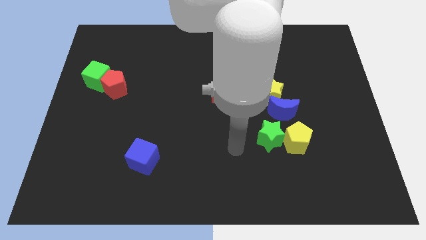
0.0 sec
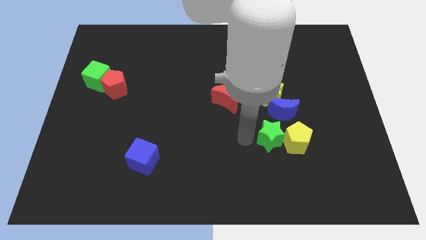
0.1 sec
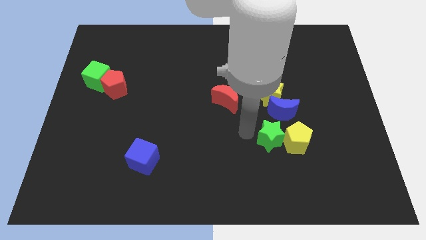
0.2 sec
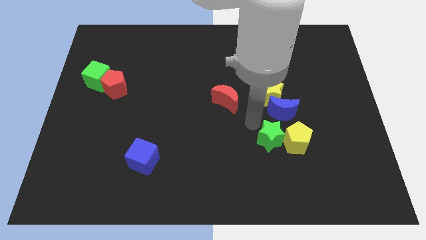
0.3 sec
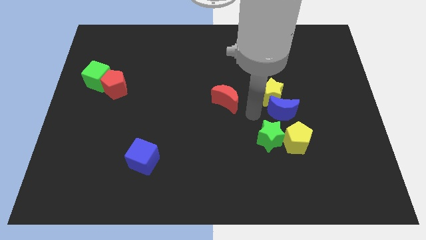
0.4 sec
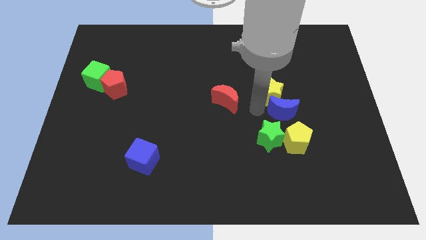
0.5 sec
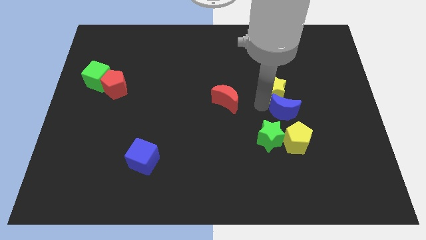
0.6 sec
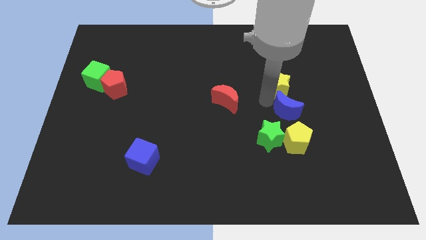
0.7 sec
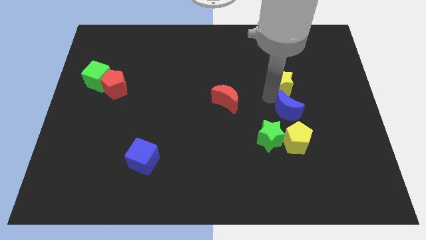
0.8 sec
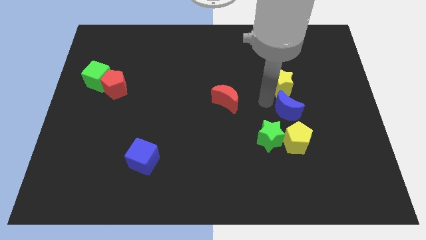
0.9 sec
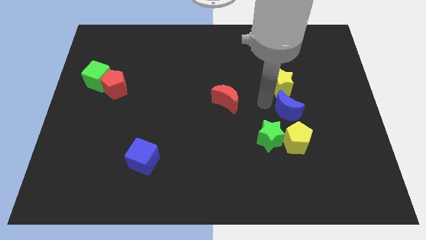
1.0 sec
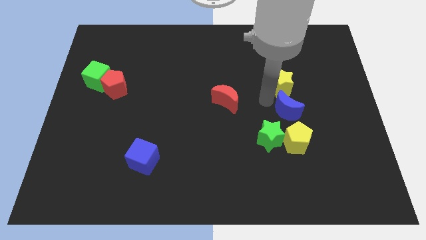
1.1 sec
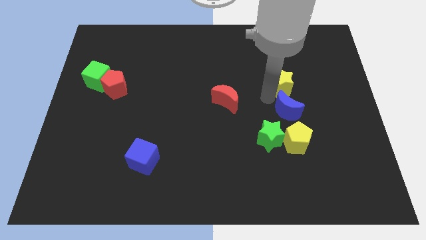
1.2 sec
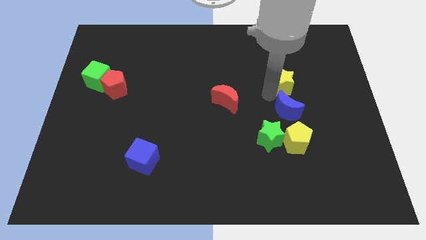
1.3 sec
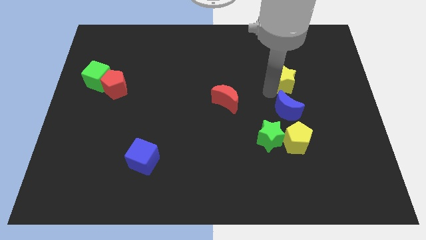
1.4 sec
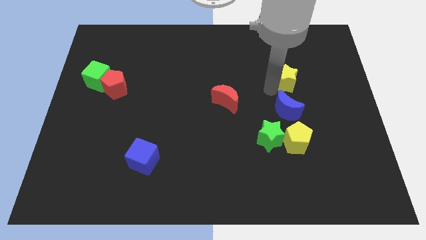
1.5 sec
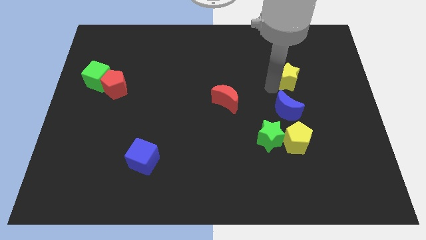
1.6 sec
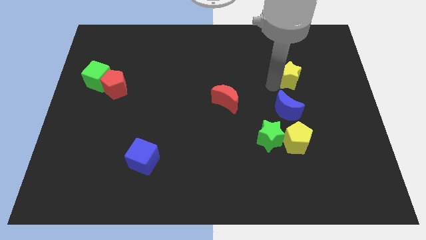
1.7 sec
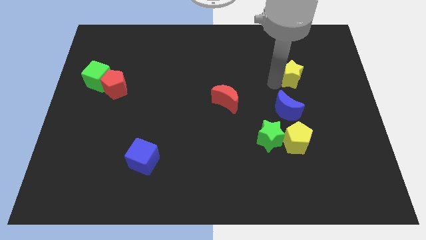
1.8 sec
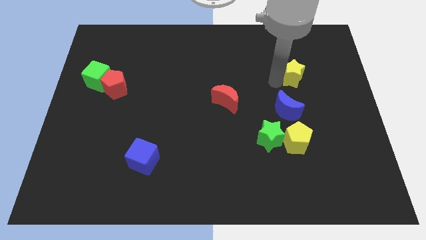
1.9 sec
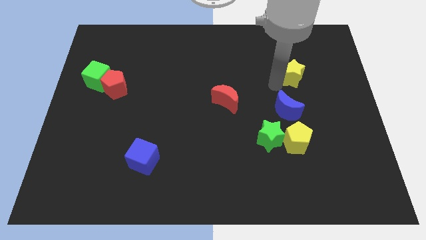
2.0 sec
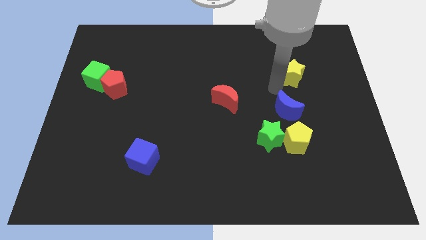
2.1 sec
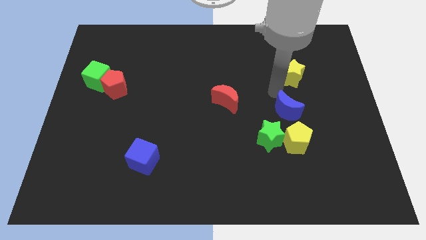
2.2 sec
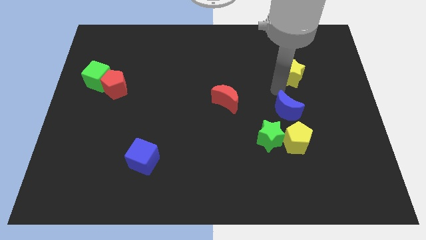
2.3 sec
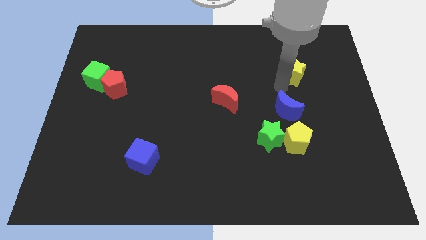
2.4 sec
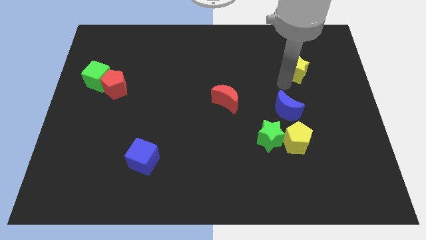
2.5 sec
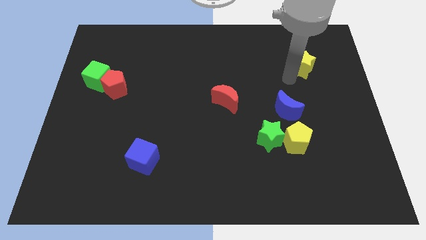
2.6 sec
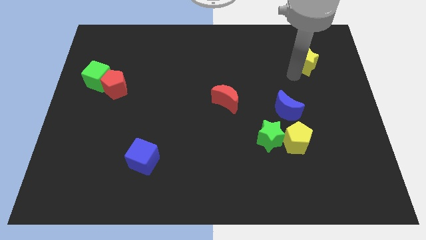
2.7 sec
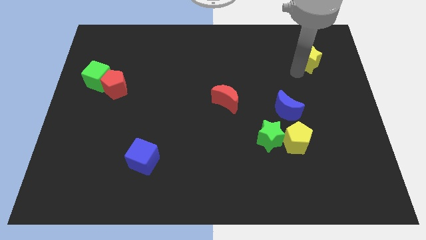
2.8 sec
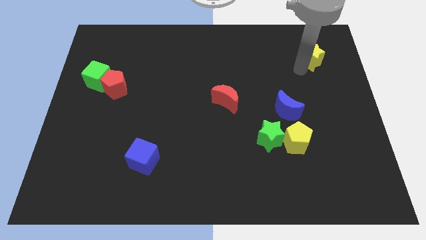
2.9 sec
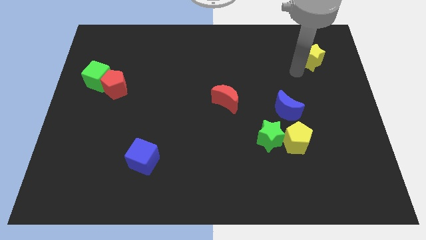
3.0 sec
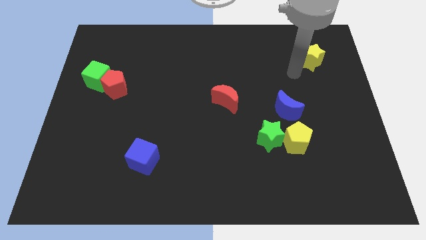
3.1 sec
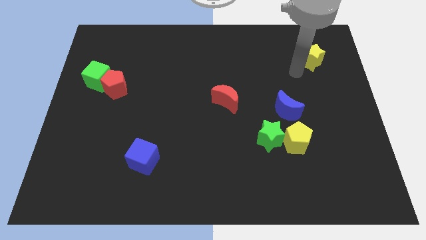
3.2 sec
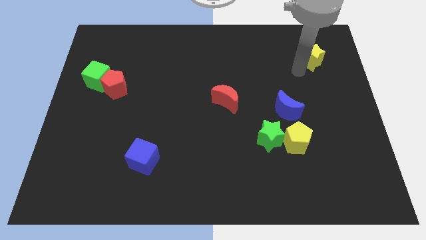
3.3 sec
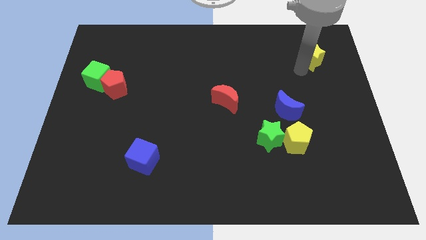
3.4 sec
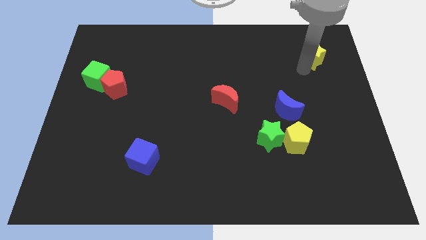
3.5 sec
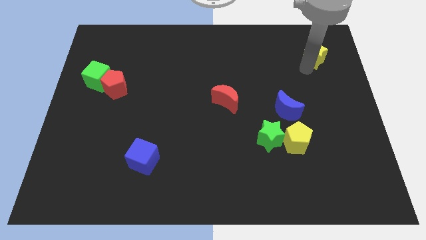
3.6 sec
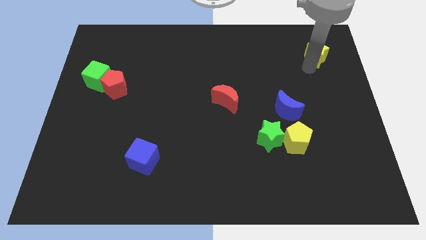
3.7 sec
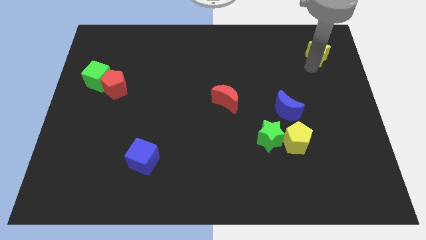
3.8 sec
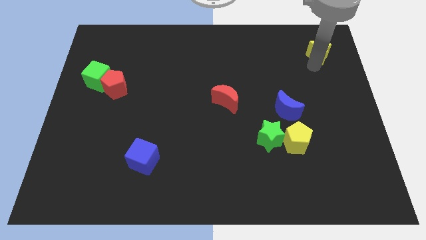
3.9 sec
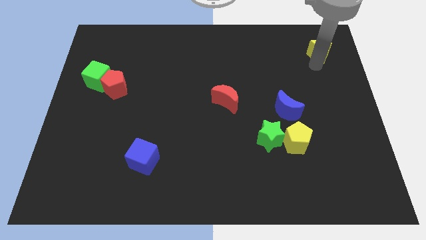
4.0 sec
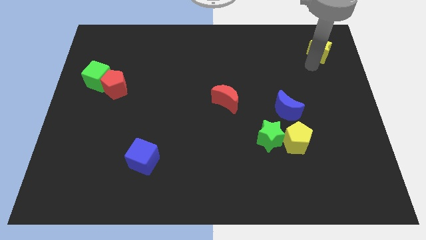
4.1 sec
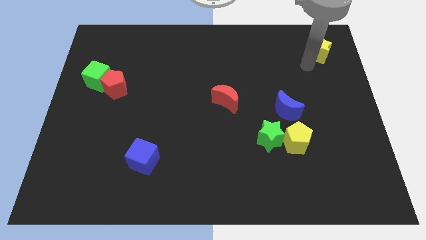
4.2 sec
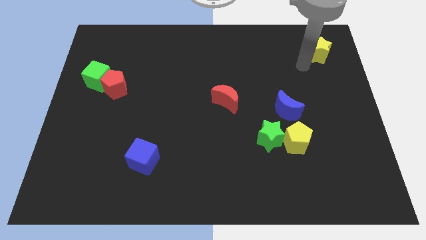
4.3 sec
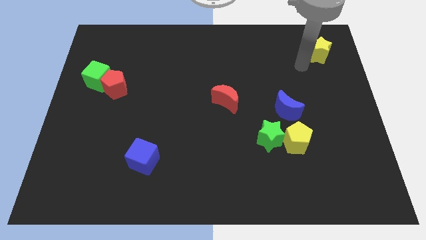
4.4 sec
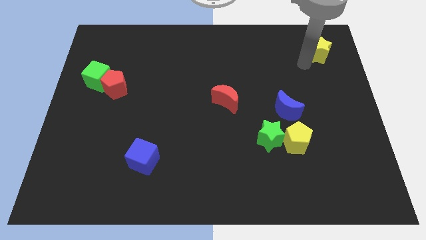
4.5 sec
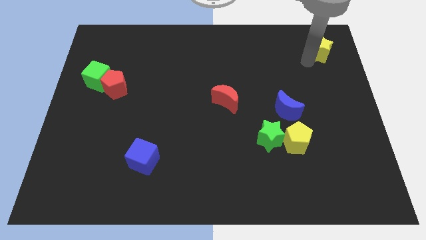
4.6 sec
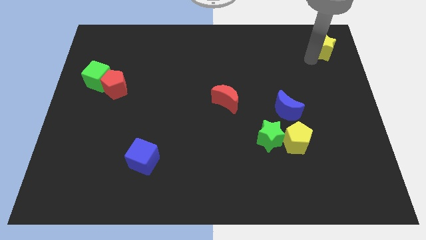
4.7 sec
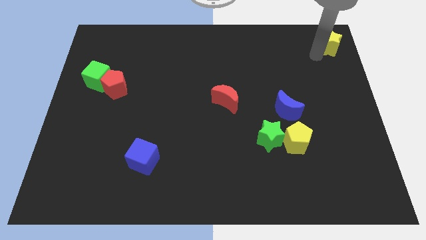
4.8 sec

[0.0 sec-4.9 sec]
push the yellow star to the top right

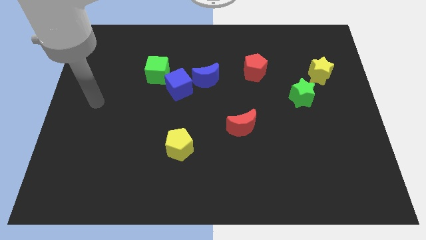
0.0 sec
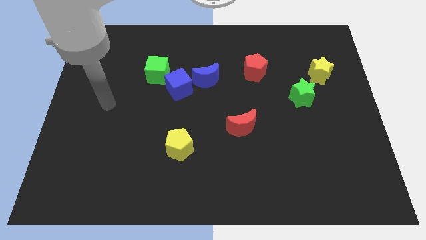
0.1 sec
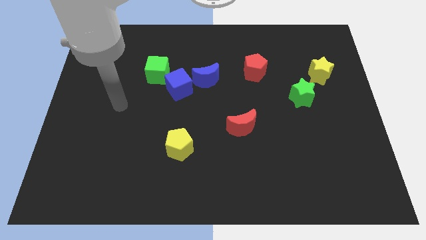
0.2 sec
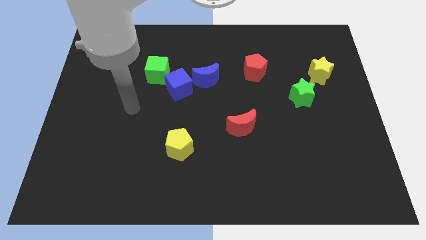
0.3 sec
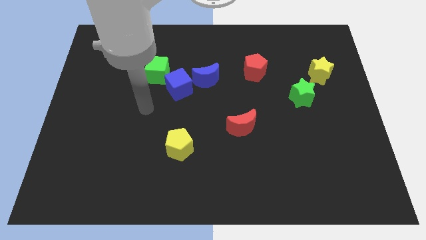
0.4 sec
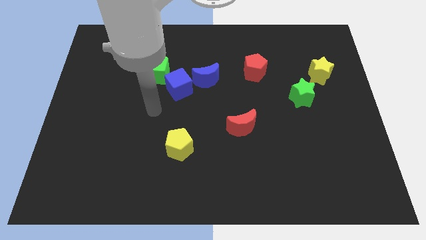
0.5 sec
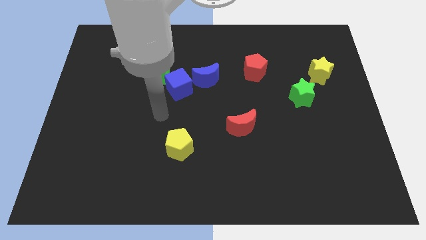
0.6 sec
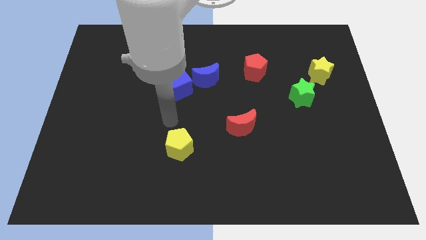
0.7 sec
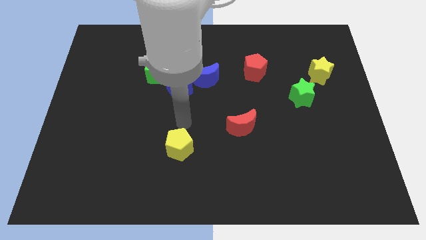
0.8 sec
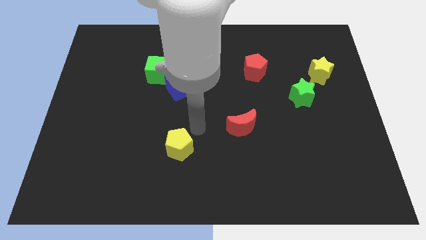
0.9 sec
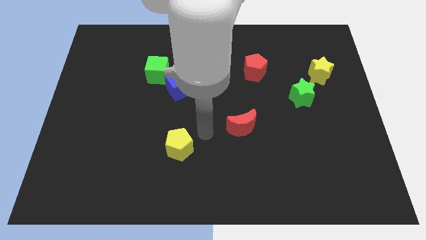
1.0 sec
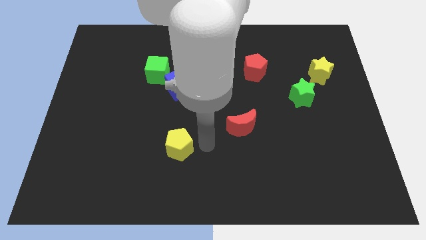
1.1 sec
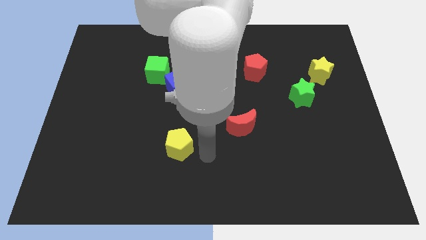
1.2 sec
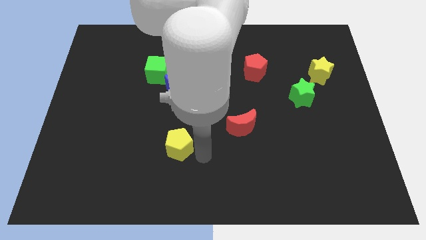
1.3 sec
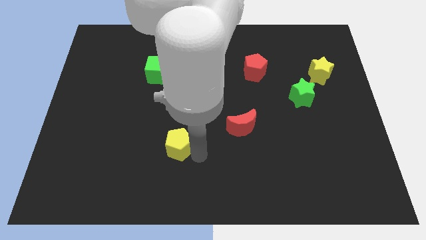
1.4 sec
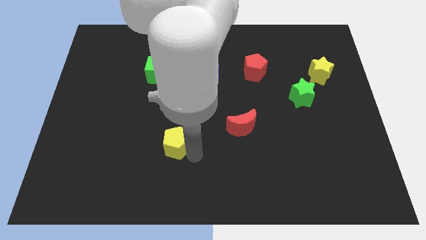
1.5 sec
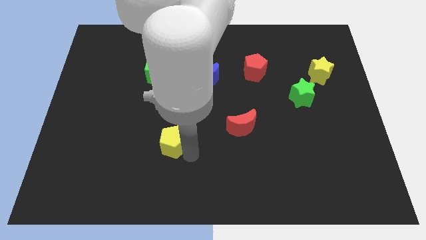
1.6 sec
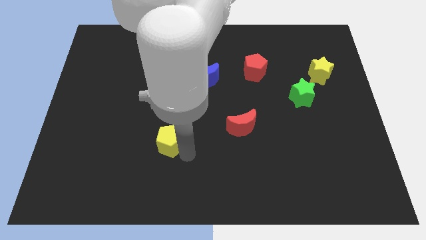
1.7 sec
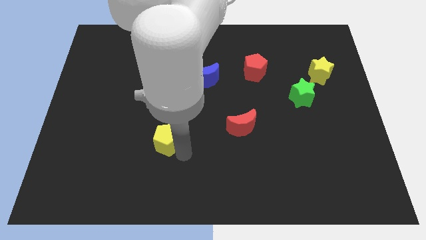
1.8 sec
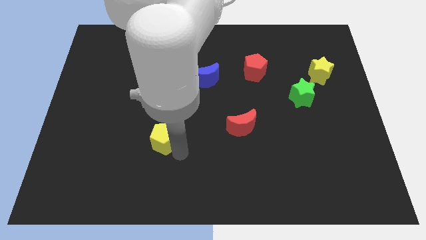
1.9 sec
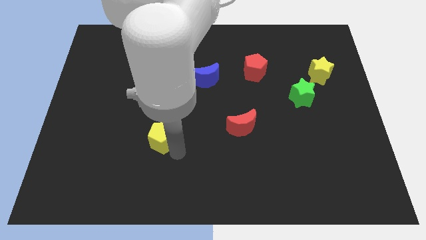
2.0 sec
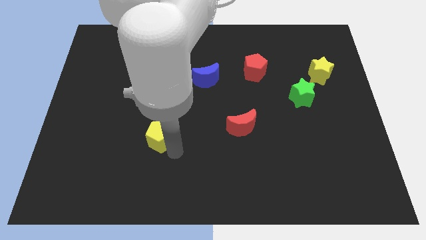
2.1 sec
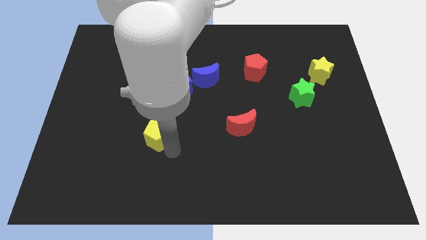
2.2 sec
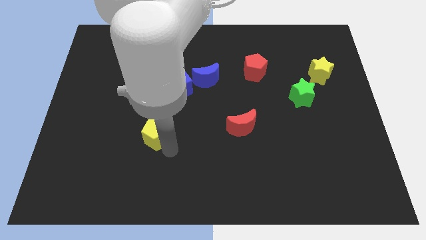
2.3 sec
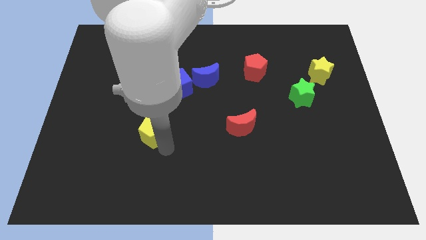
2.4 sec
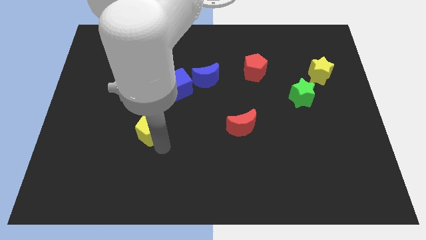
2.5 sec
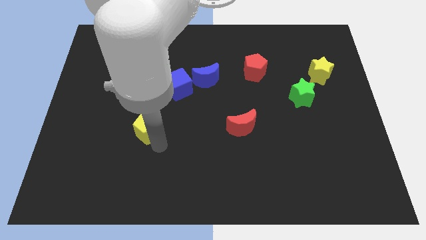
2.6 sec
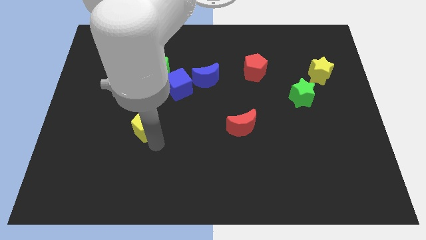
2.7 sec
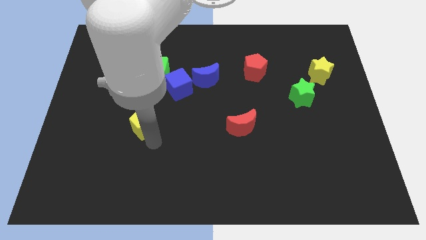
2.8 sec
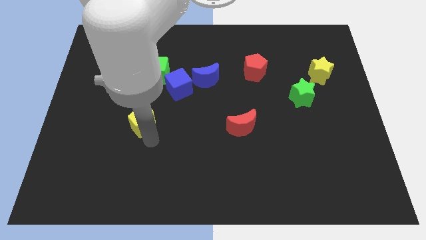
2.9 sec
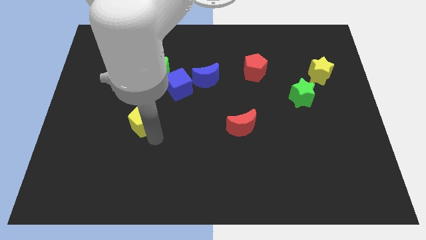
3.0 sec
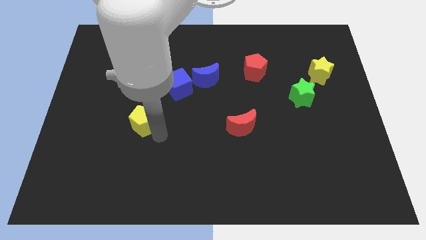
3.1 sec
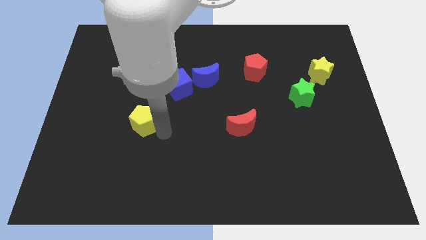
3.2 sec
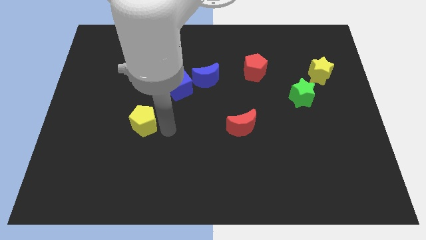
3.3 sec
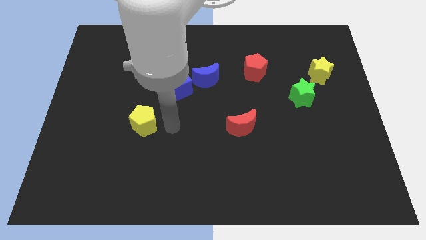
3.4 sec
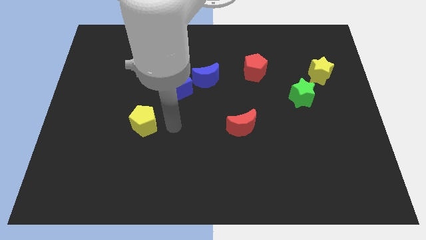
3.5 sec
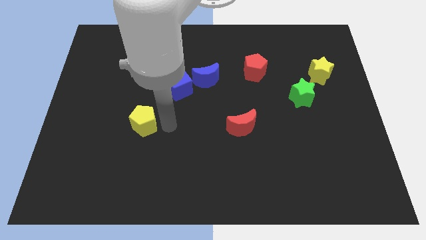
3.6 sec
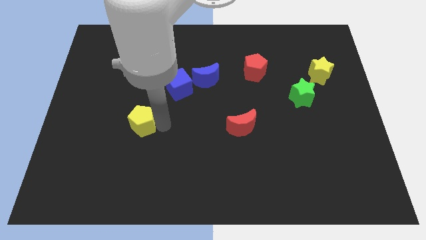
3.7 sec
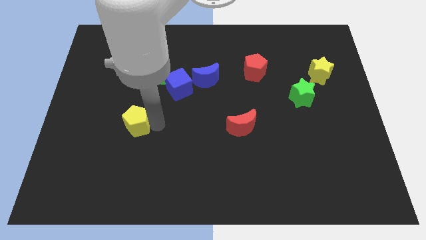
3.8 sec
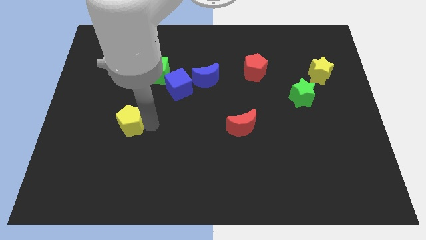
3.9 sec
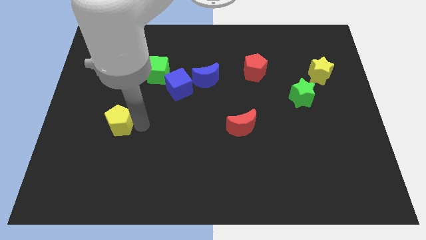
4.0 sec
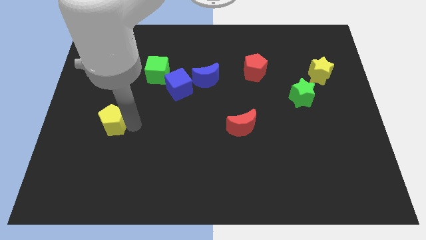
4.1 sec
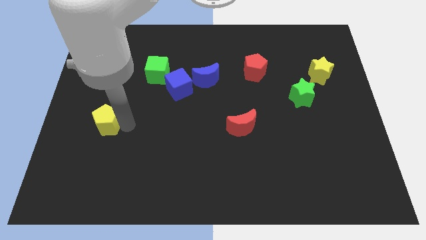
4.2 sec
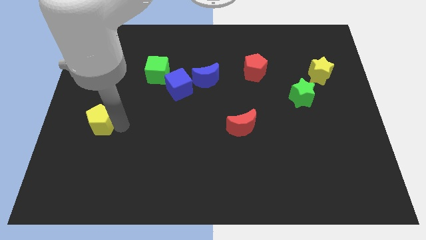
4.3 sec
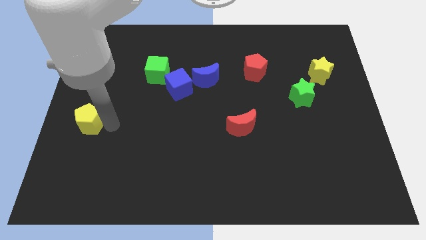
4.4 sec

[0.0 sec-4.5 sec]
push the yellow pentagon to the left side of the board
